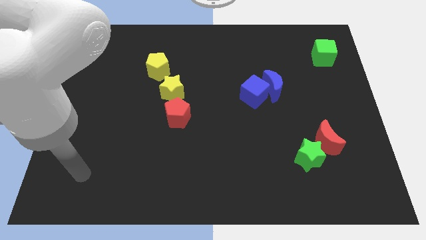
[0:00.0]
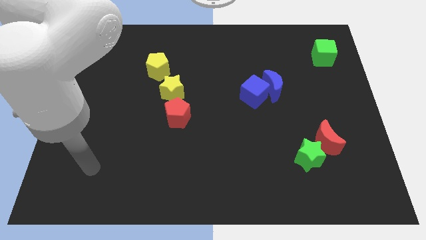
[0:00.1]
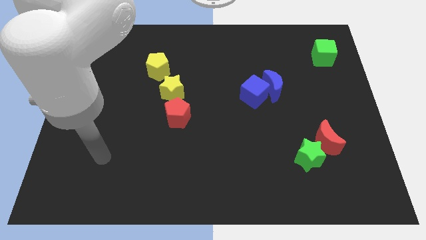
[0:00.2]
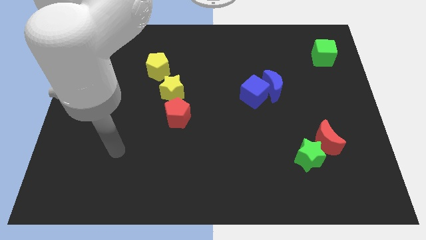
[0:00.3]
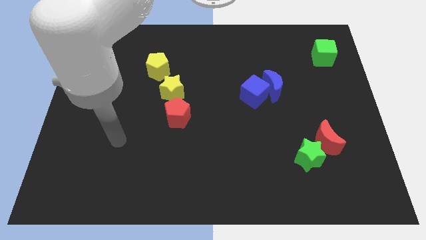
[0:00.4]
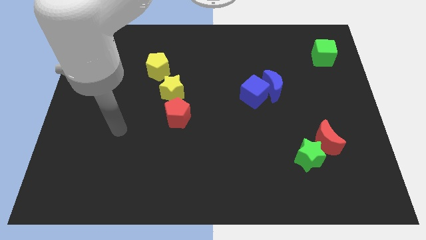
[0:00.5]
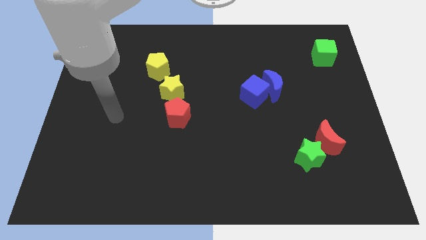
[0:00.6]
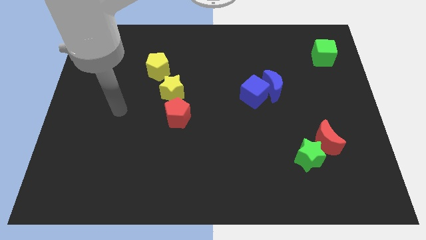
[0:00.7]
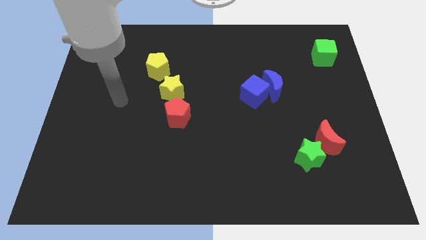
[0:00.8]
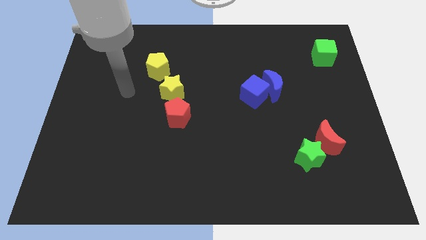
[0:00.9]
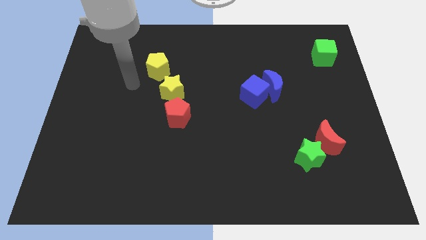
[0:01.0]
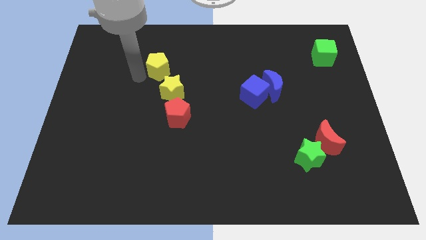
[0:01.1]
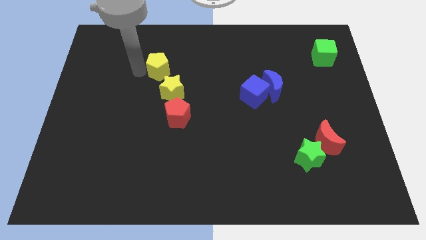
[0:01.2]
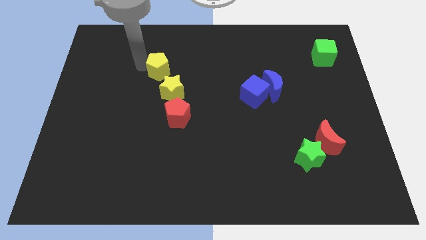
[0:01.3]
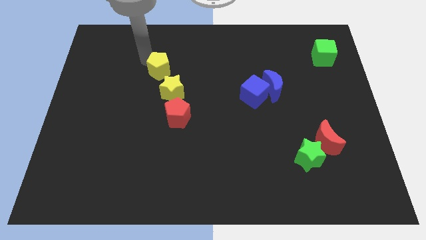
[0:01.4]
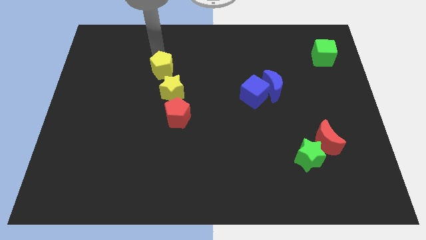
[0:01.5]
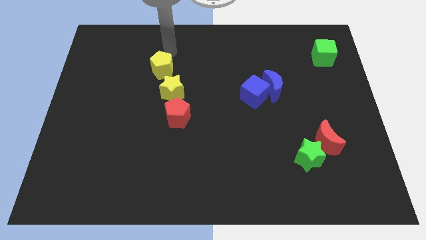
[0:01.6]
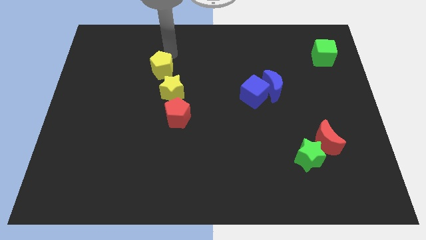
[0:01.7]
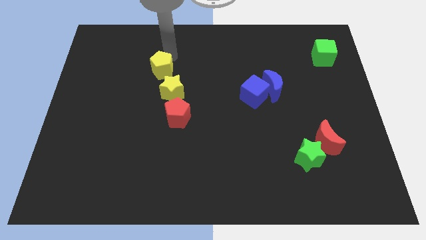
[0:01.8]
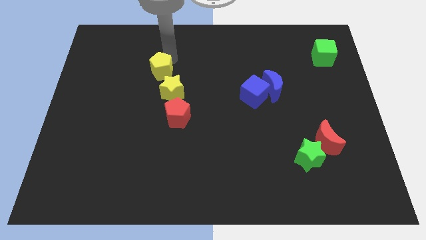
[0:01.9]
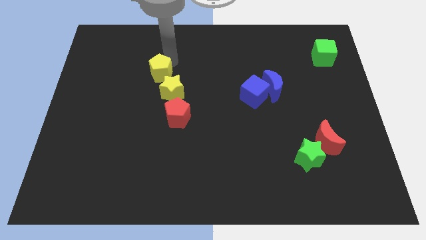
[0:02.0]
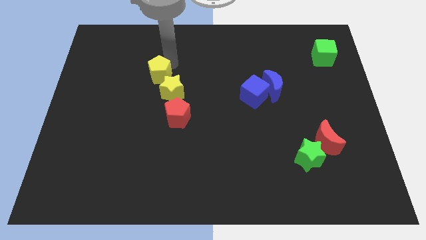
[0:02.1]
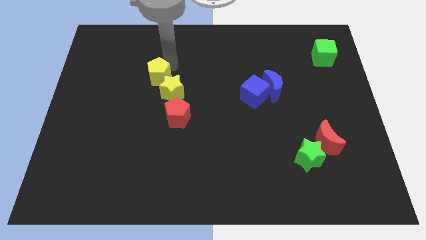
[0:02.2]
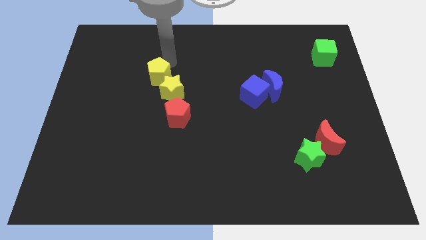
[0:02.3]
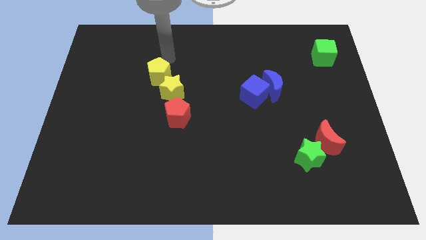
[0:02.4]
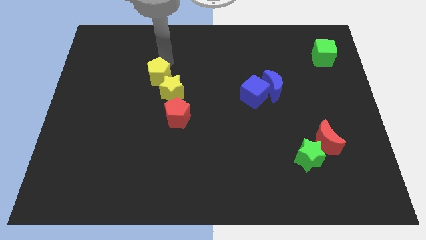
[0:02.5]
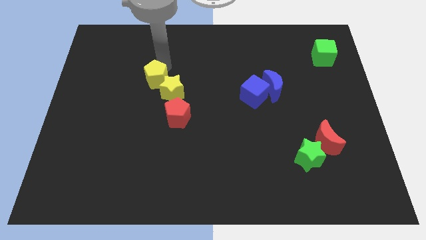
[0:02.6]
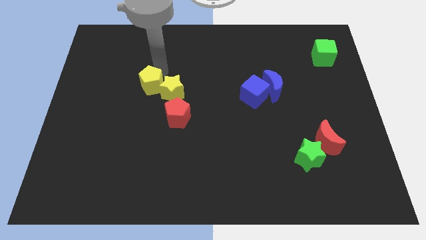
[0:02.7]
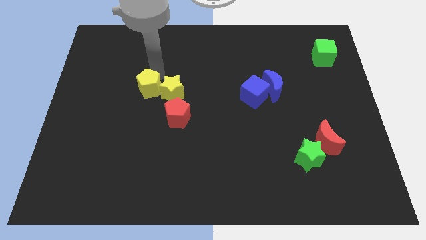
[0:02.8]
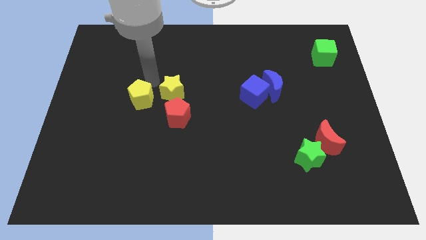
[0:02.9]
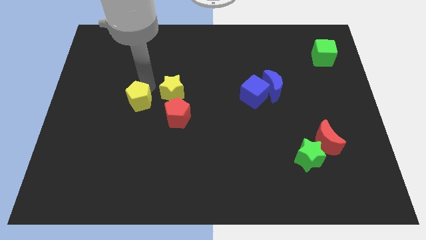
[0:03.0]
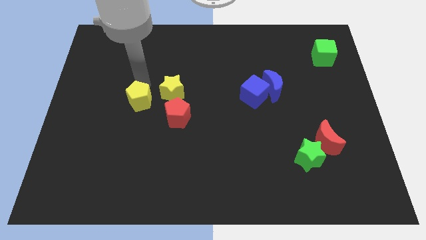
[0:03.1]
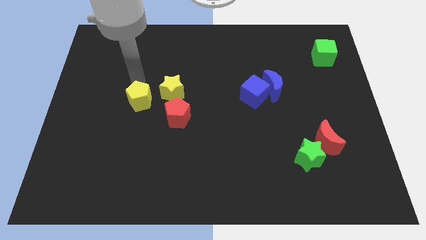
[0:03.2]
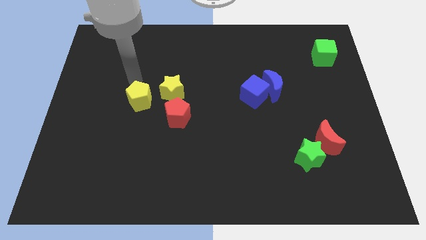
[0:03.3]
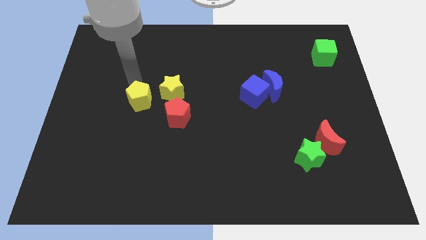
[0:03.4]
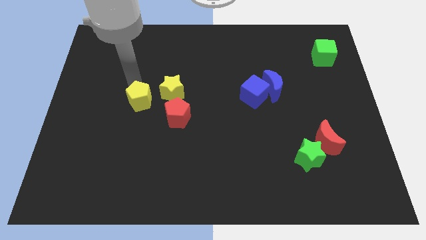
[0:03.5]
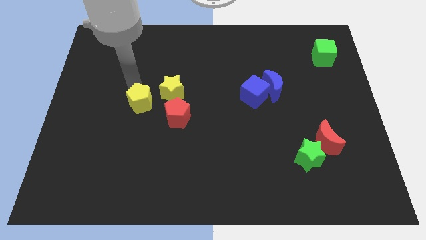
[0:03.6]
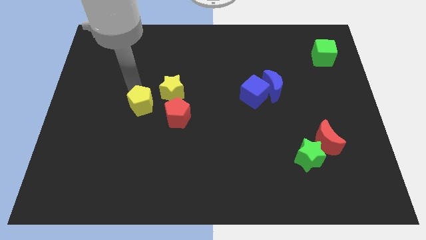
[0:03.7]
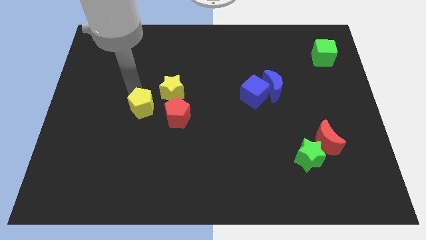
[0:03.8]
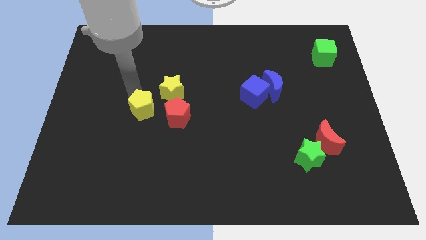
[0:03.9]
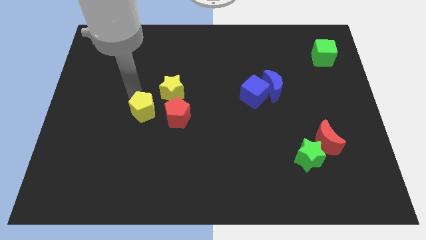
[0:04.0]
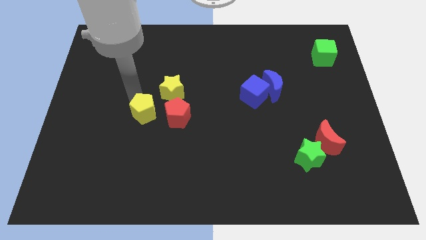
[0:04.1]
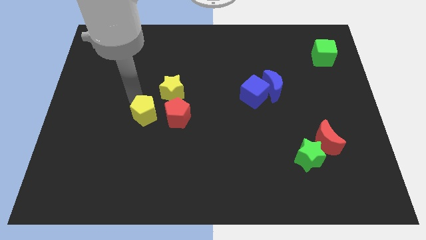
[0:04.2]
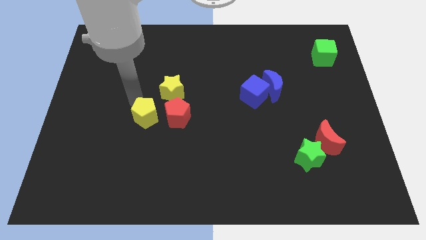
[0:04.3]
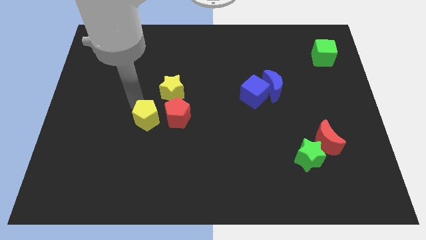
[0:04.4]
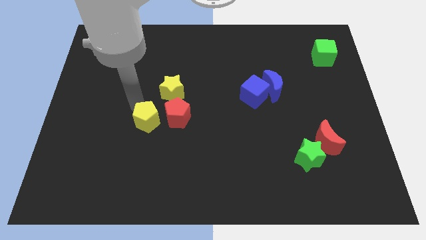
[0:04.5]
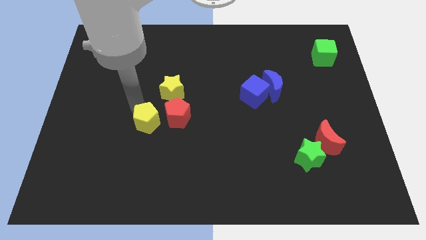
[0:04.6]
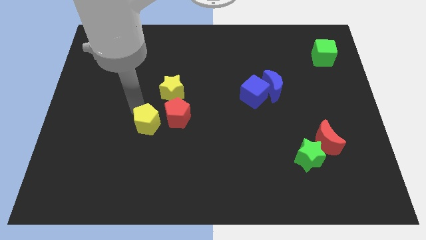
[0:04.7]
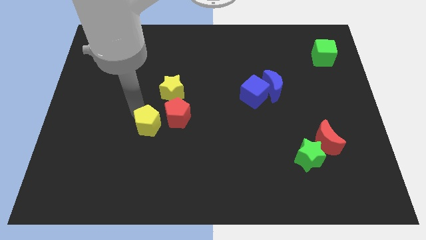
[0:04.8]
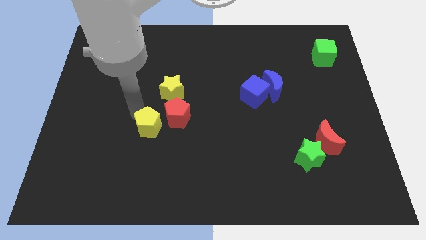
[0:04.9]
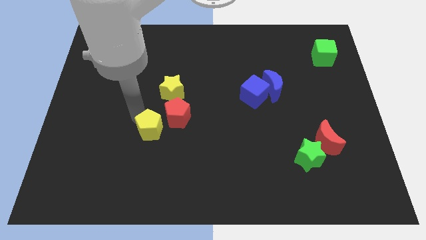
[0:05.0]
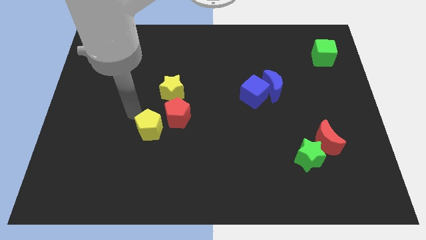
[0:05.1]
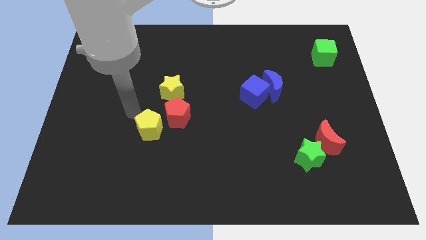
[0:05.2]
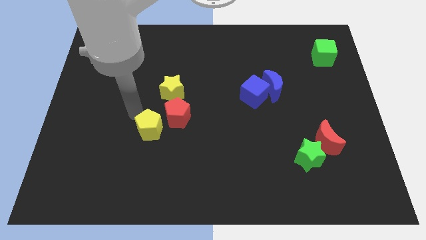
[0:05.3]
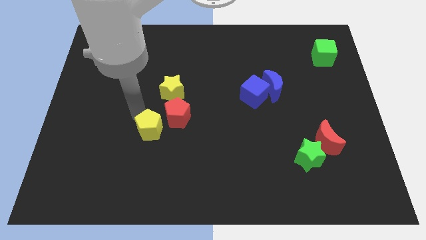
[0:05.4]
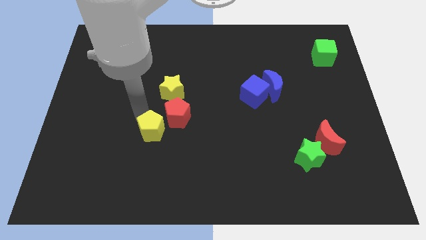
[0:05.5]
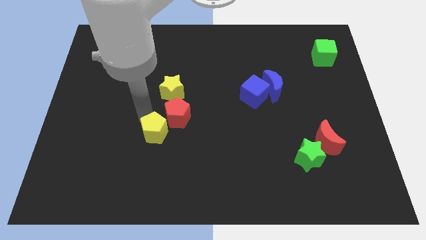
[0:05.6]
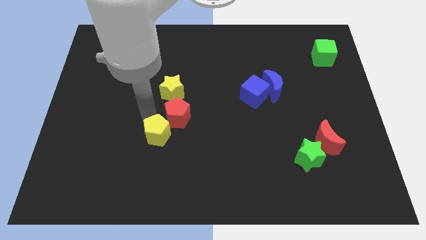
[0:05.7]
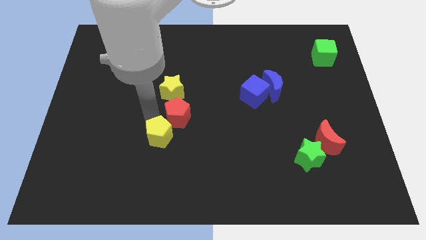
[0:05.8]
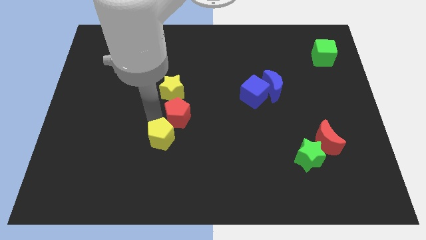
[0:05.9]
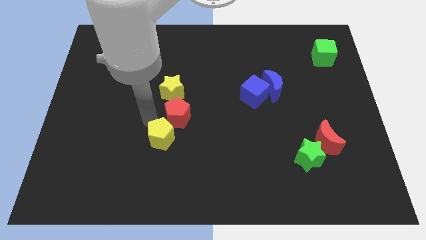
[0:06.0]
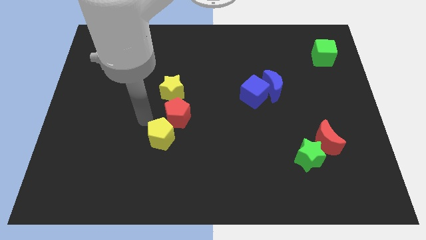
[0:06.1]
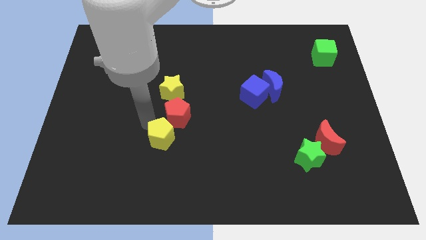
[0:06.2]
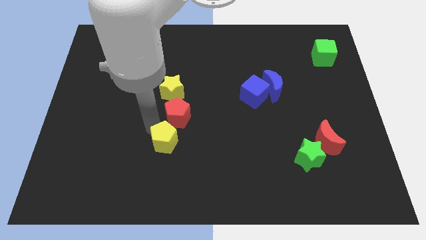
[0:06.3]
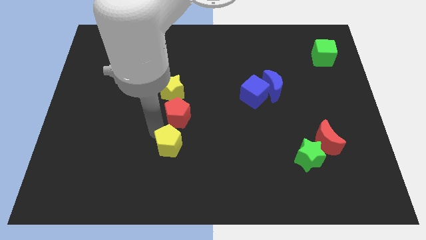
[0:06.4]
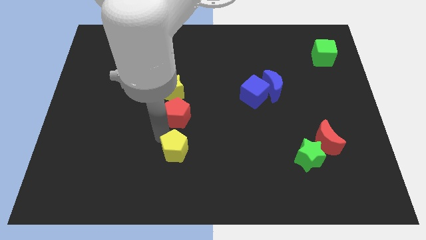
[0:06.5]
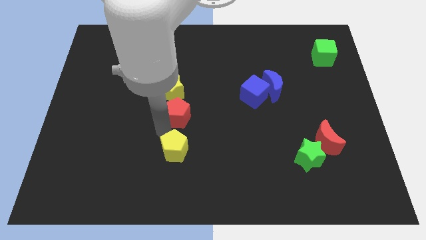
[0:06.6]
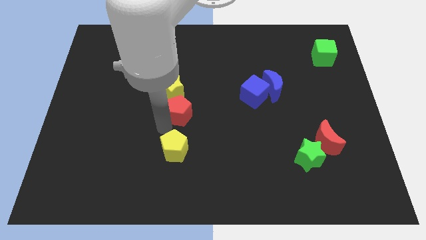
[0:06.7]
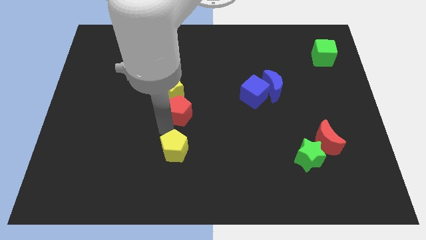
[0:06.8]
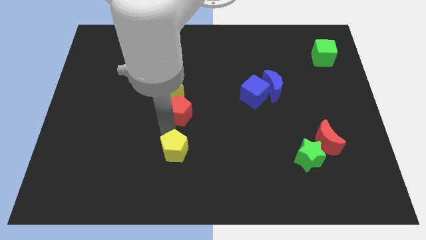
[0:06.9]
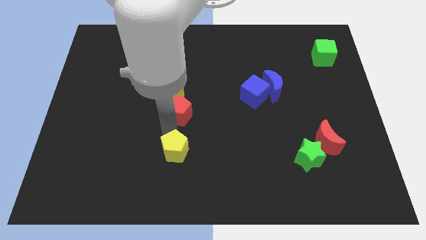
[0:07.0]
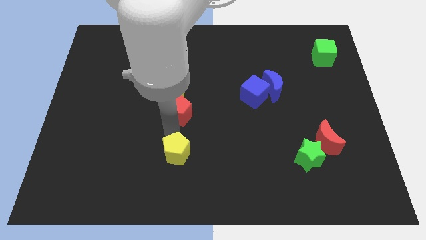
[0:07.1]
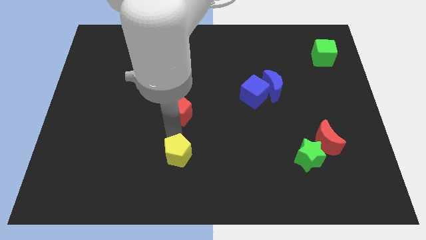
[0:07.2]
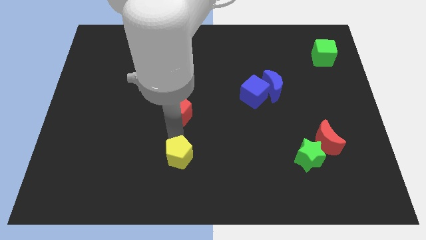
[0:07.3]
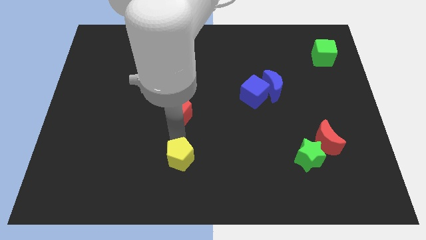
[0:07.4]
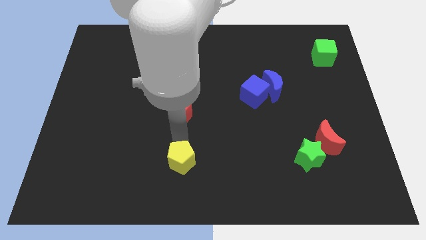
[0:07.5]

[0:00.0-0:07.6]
put the yellow pentagon to the bottom
